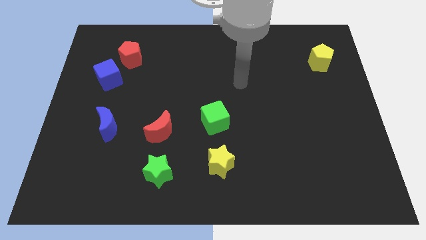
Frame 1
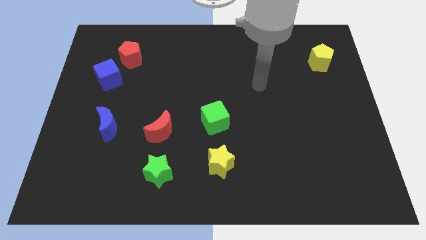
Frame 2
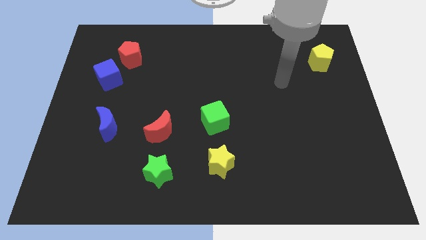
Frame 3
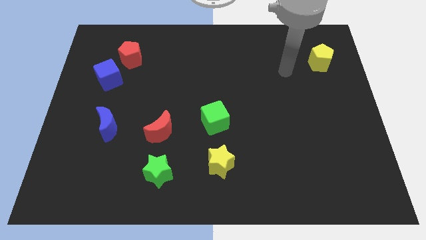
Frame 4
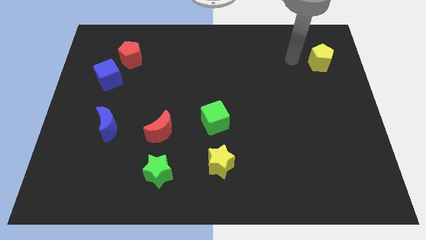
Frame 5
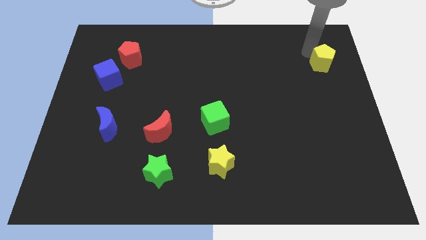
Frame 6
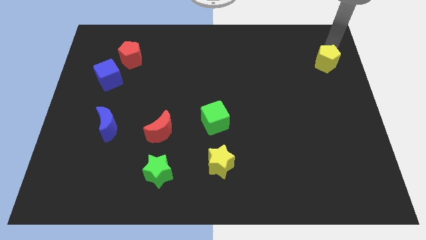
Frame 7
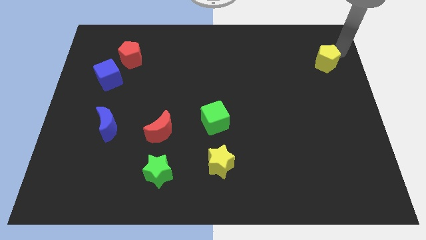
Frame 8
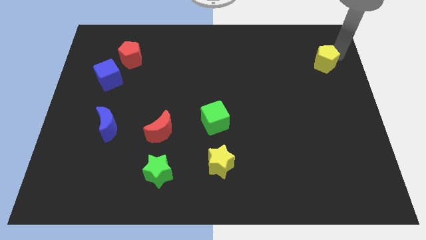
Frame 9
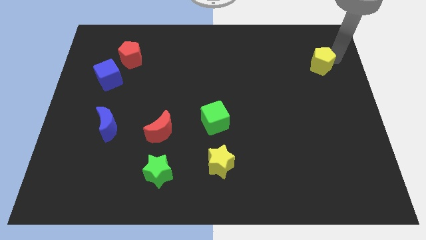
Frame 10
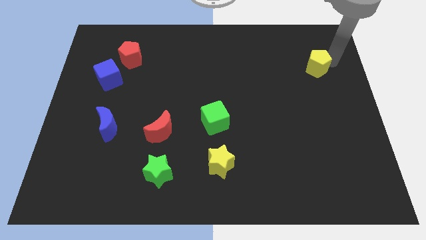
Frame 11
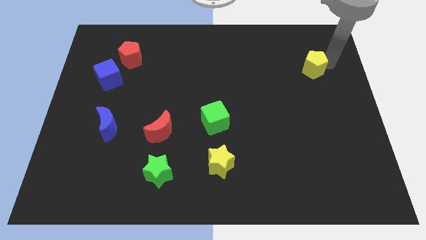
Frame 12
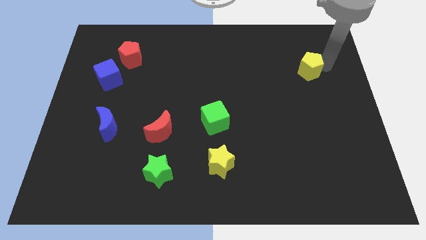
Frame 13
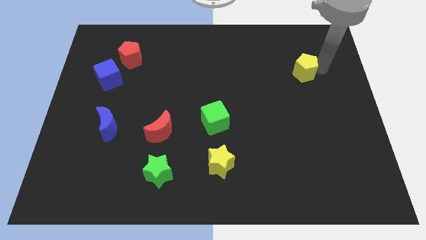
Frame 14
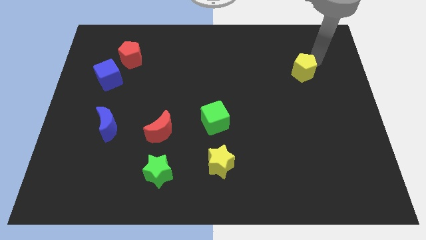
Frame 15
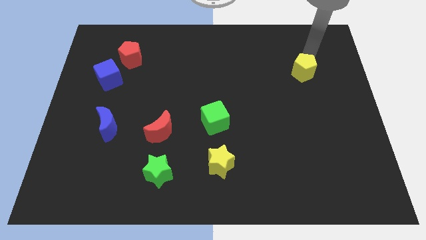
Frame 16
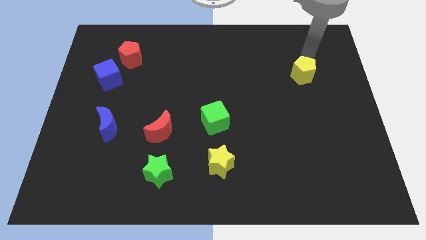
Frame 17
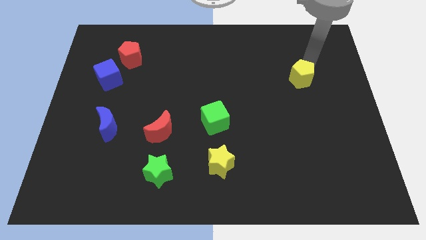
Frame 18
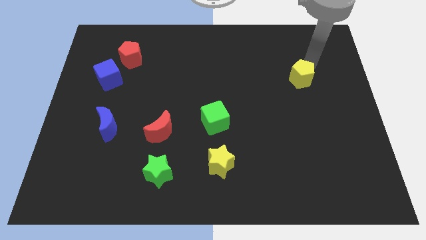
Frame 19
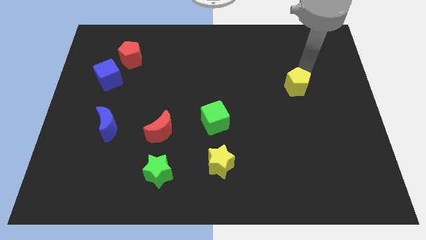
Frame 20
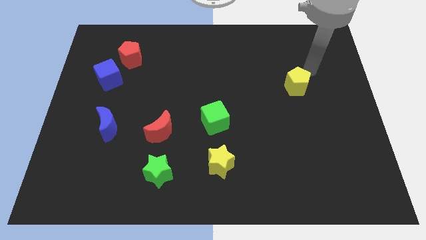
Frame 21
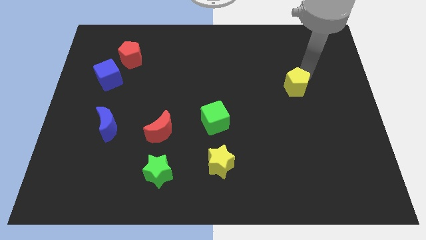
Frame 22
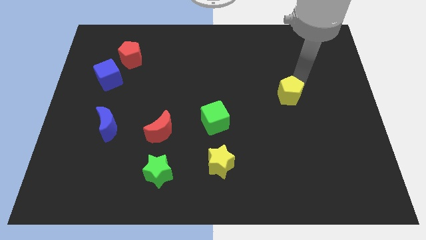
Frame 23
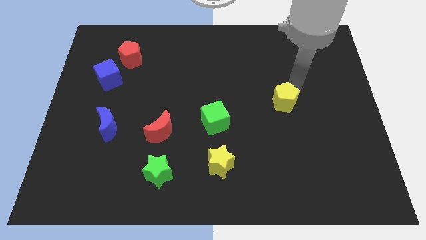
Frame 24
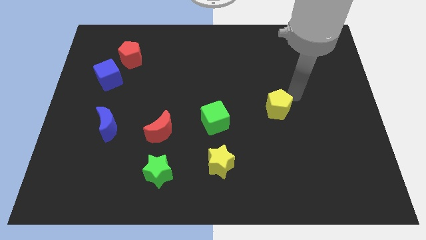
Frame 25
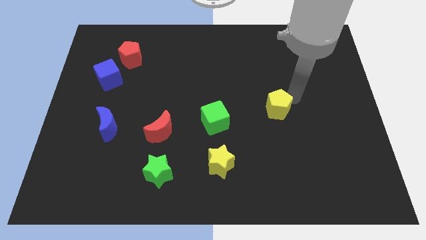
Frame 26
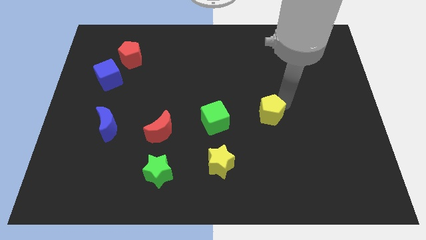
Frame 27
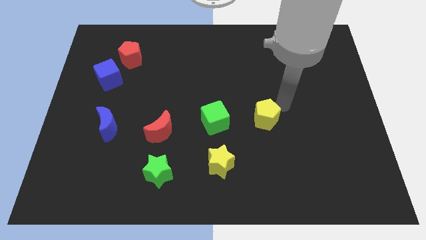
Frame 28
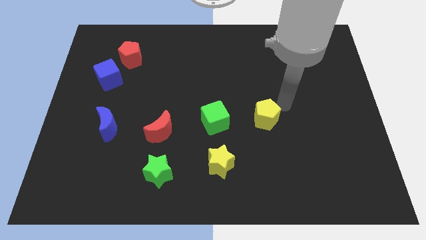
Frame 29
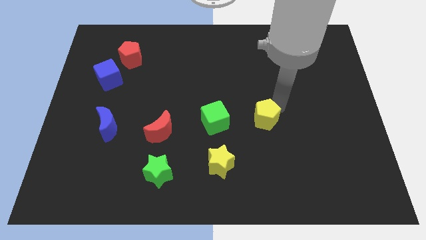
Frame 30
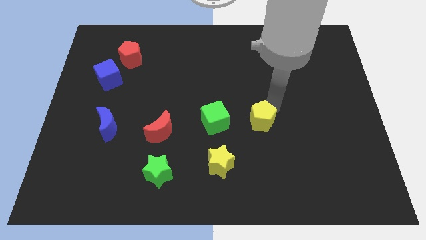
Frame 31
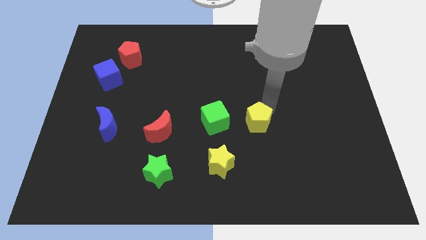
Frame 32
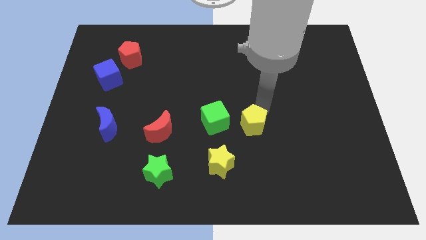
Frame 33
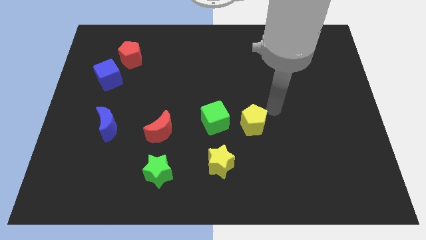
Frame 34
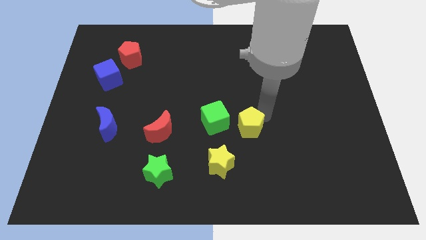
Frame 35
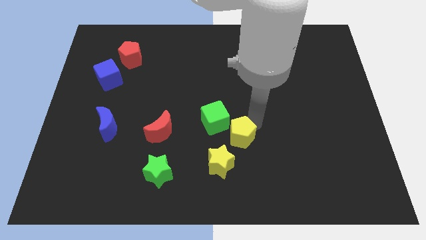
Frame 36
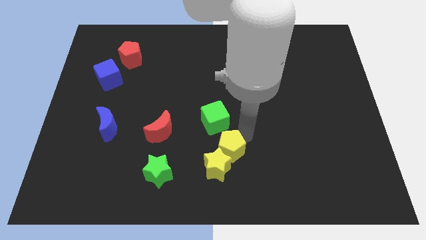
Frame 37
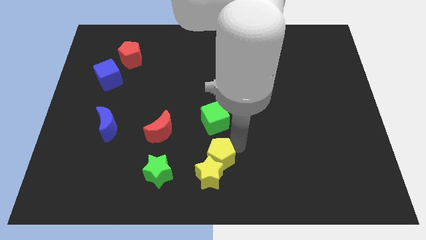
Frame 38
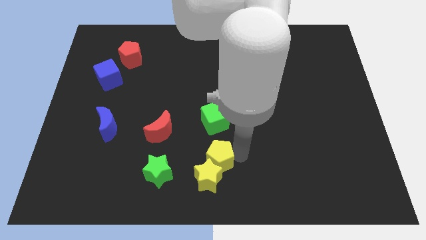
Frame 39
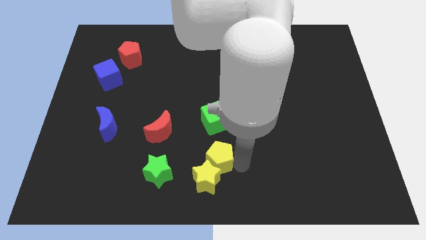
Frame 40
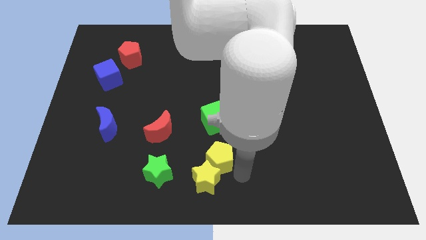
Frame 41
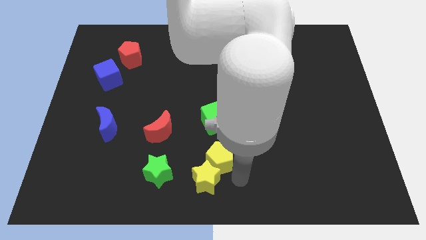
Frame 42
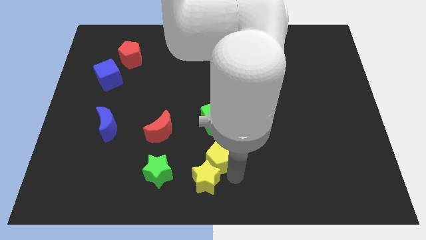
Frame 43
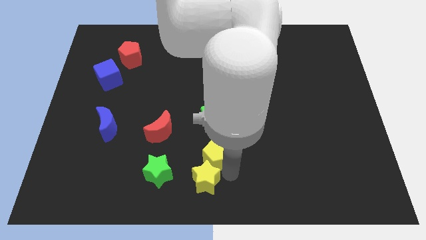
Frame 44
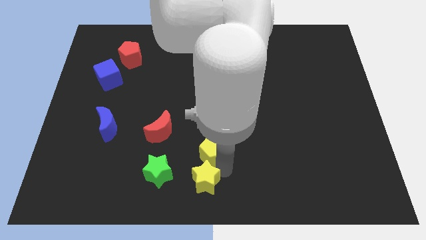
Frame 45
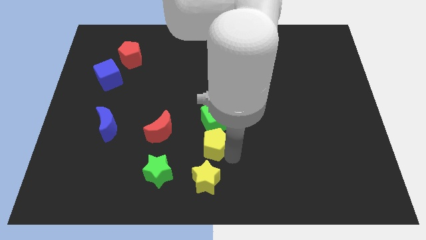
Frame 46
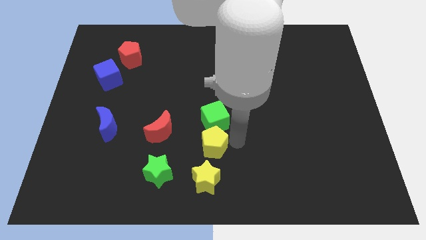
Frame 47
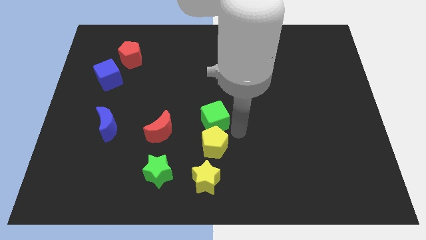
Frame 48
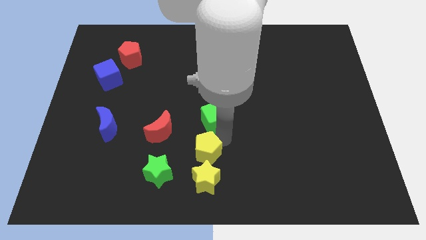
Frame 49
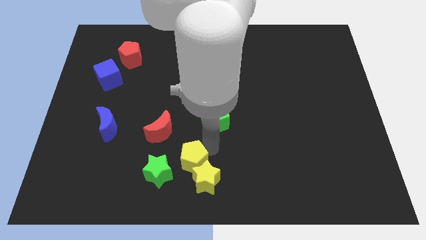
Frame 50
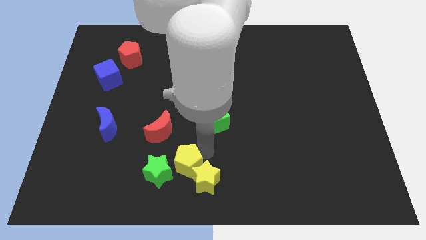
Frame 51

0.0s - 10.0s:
move the yellow pentagon towards the green star

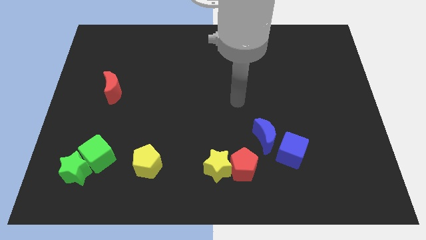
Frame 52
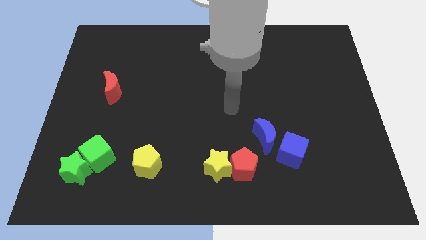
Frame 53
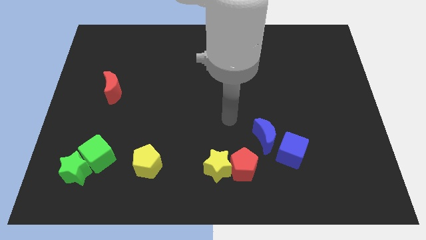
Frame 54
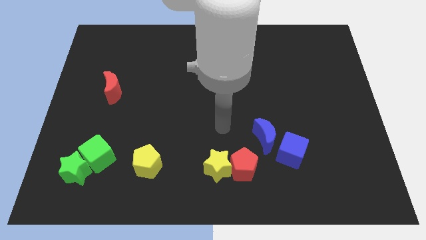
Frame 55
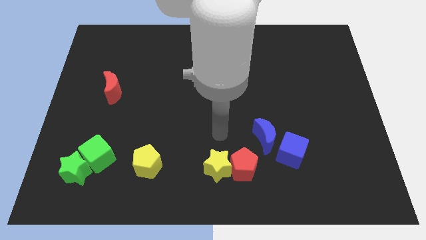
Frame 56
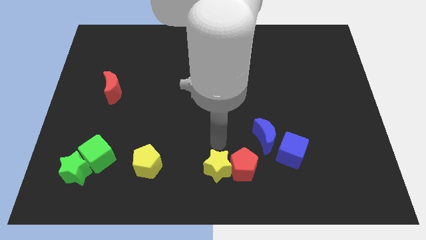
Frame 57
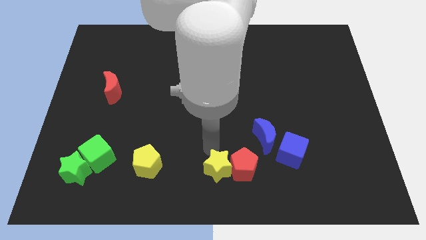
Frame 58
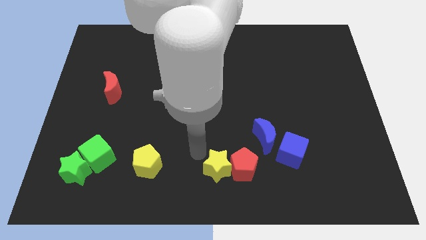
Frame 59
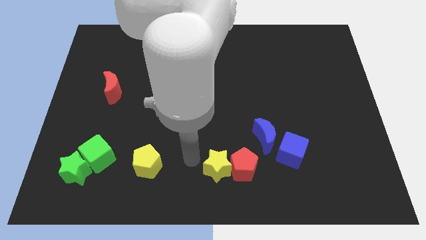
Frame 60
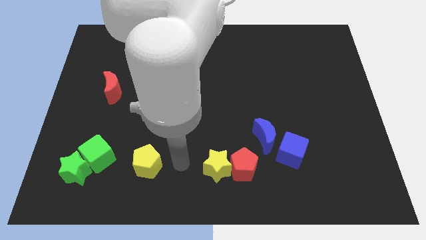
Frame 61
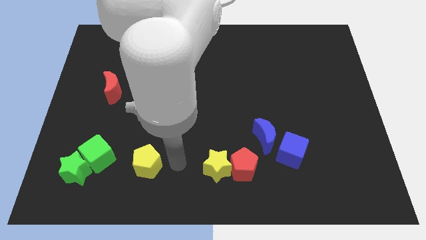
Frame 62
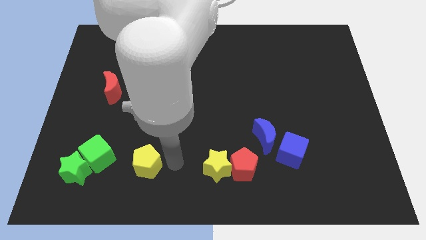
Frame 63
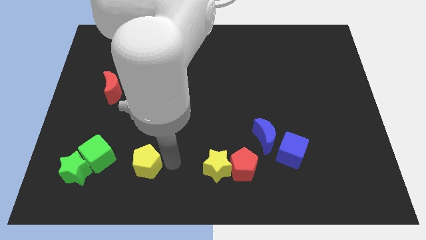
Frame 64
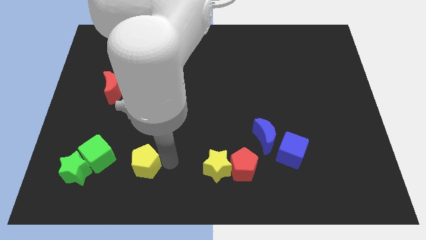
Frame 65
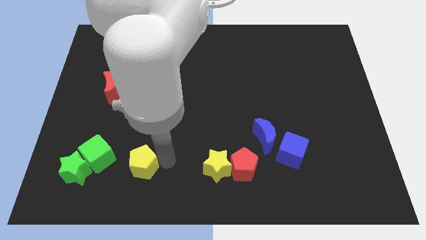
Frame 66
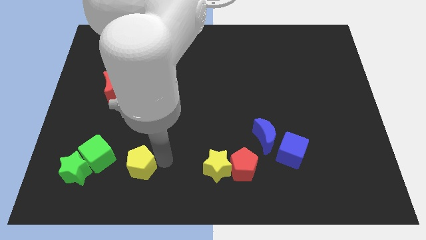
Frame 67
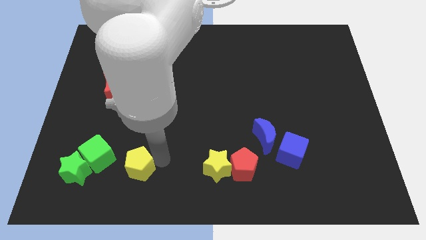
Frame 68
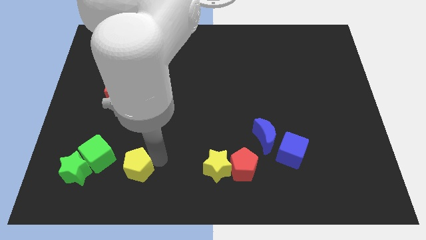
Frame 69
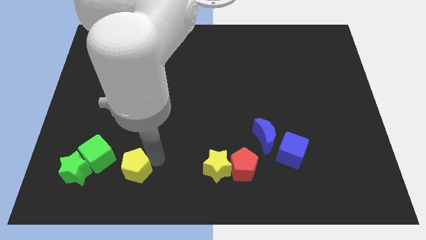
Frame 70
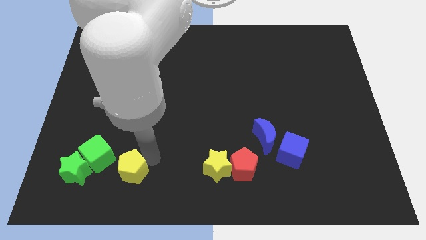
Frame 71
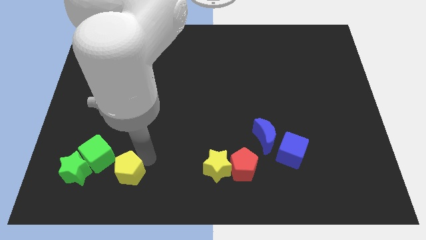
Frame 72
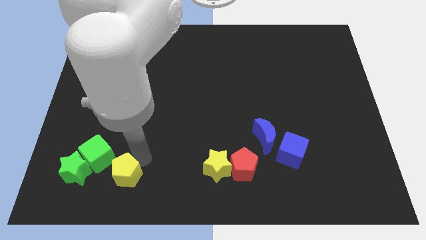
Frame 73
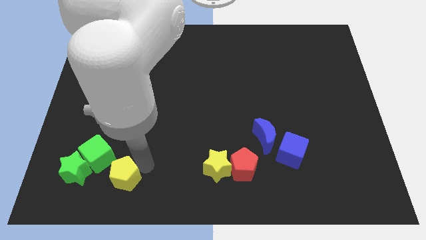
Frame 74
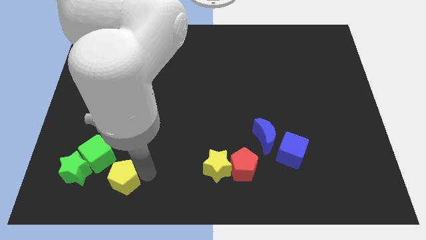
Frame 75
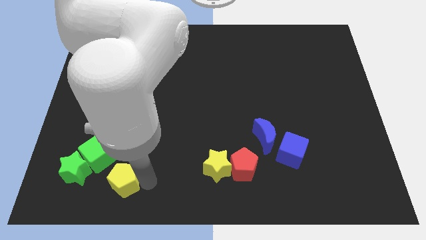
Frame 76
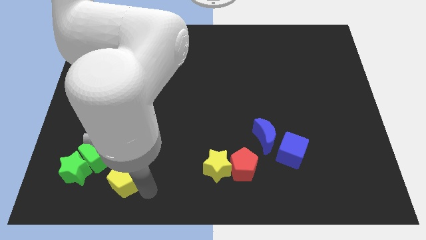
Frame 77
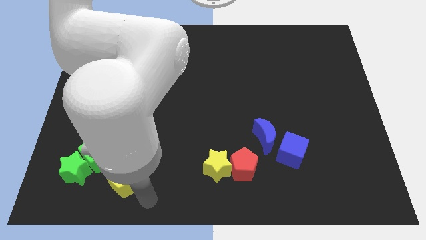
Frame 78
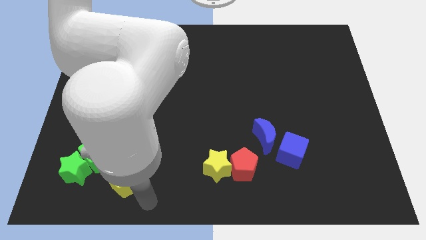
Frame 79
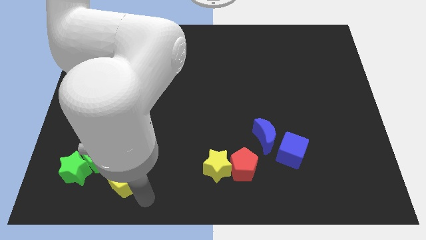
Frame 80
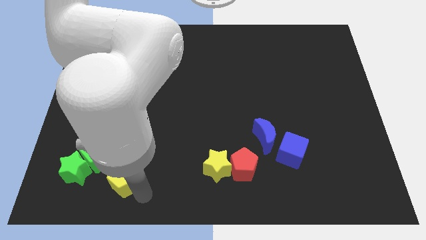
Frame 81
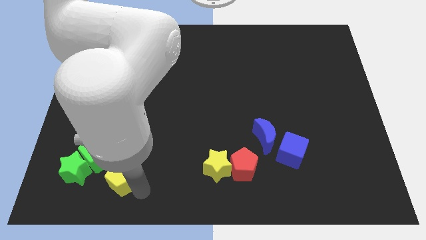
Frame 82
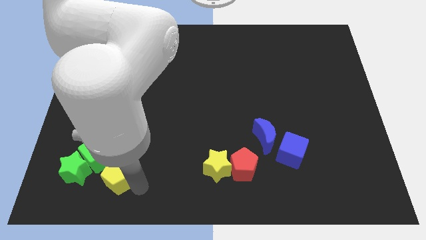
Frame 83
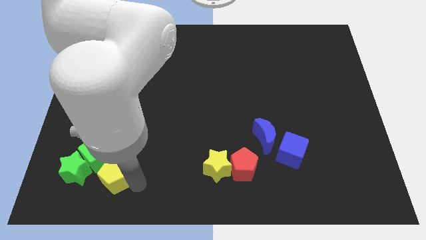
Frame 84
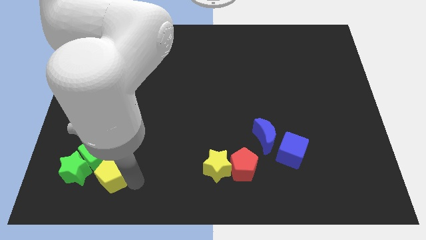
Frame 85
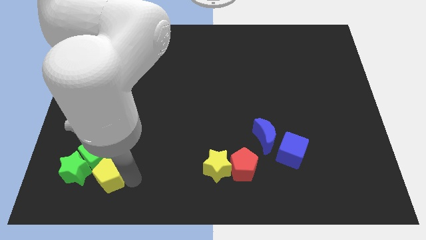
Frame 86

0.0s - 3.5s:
move the yellow pentagon towards the green cube
